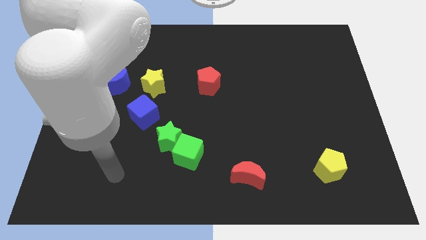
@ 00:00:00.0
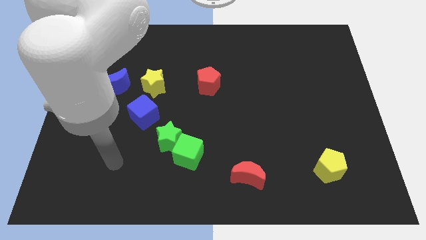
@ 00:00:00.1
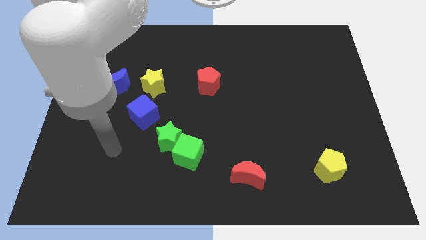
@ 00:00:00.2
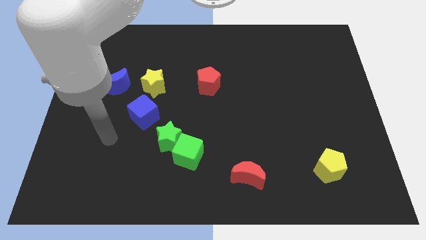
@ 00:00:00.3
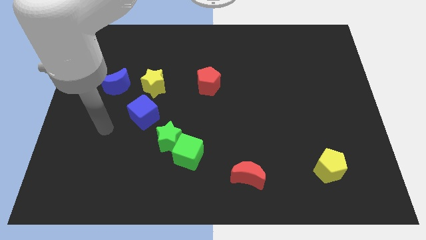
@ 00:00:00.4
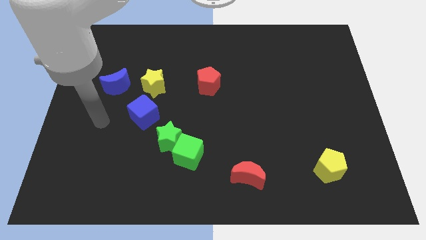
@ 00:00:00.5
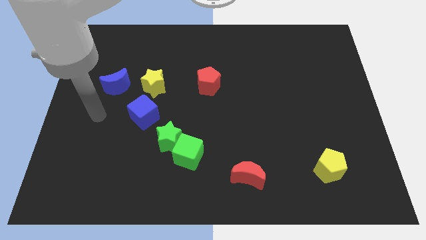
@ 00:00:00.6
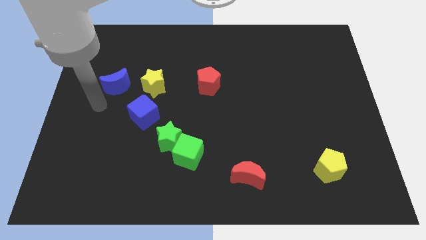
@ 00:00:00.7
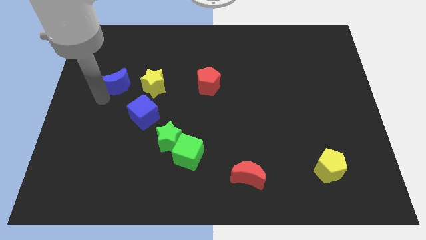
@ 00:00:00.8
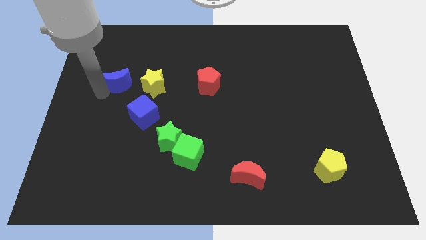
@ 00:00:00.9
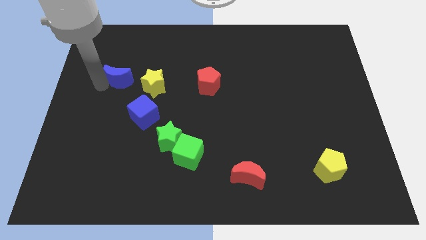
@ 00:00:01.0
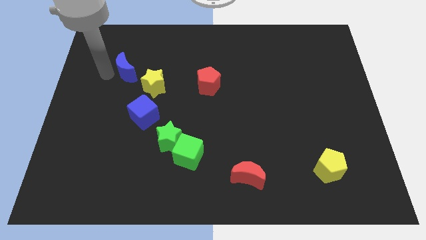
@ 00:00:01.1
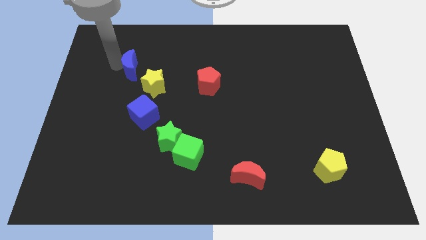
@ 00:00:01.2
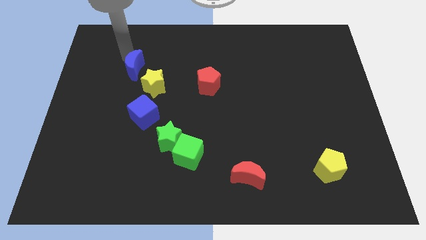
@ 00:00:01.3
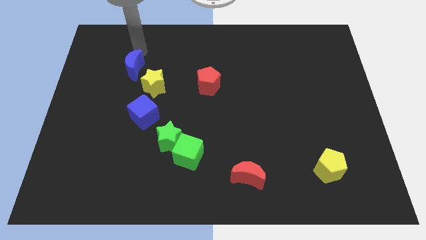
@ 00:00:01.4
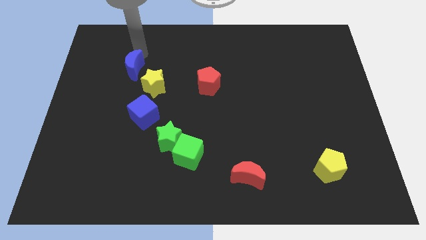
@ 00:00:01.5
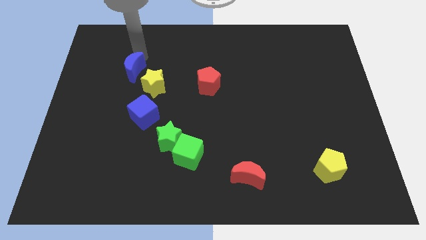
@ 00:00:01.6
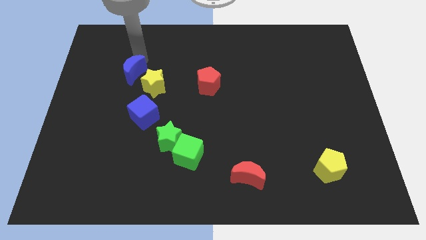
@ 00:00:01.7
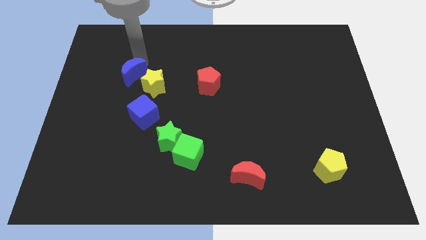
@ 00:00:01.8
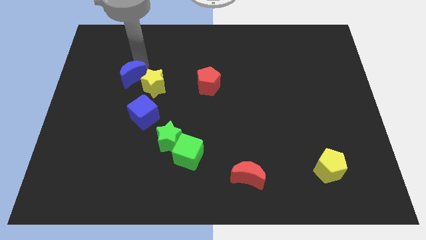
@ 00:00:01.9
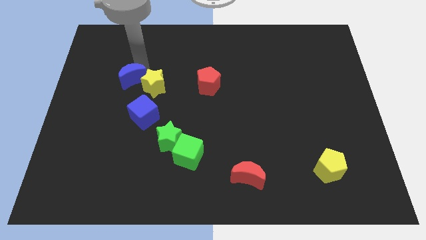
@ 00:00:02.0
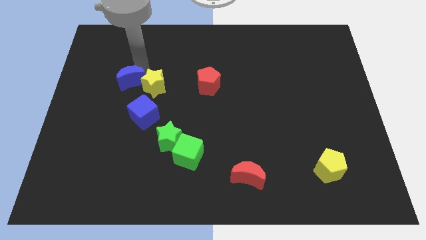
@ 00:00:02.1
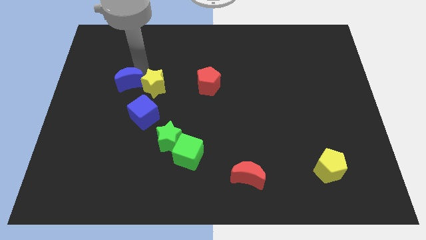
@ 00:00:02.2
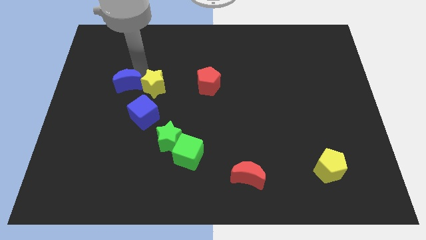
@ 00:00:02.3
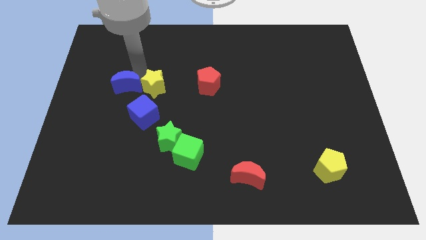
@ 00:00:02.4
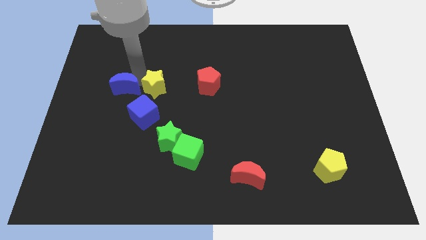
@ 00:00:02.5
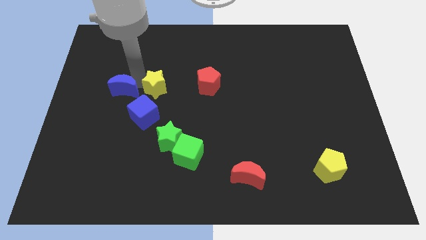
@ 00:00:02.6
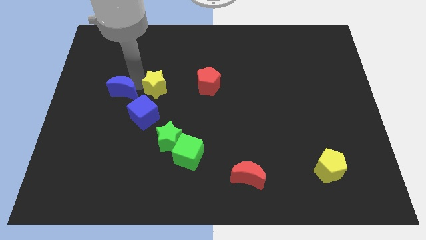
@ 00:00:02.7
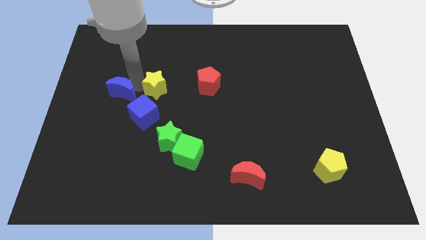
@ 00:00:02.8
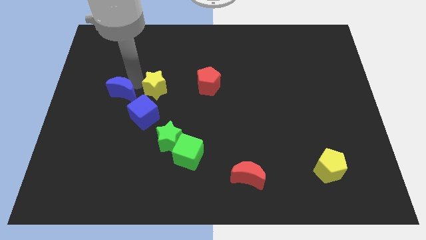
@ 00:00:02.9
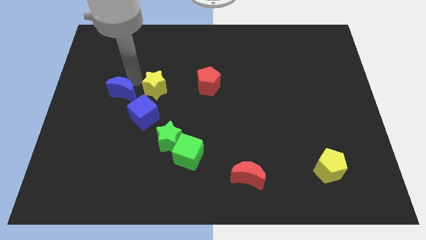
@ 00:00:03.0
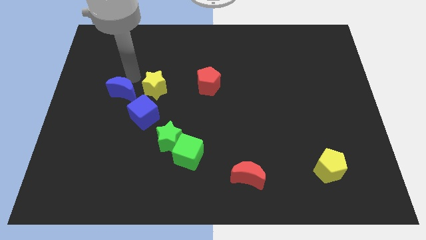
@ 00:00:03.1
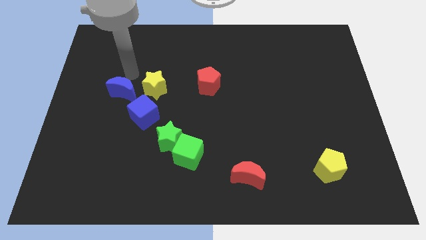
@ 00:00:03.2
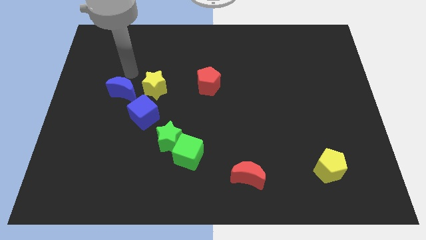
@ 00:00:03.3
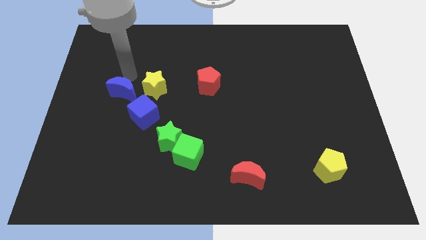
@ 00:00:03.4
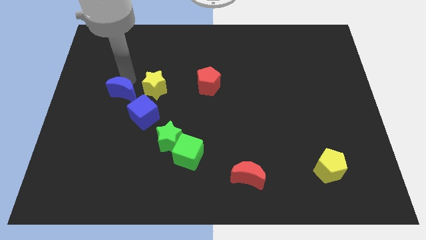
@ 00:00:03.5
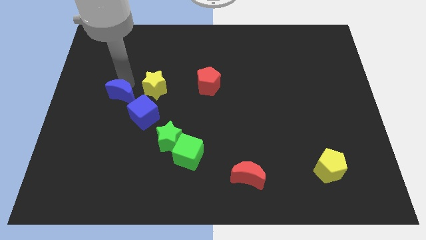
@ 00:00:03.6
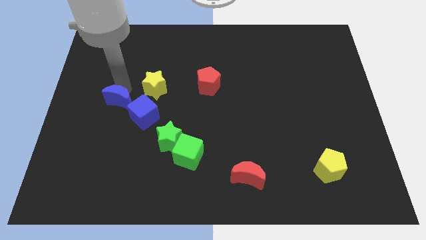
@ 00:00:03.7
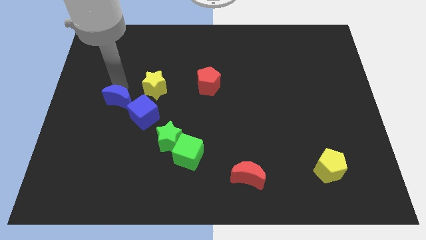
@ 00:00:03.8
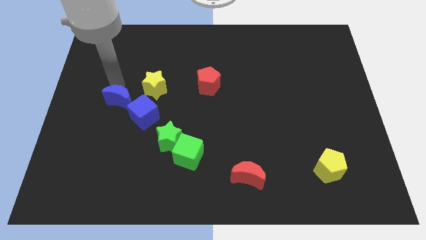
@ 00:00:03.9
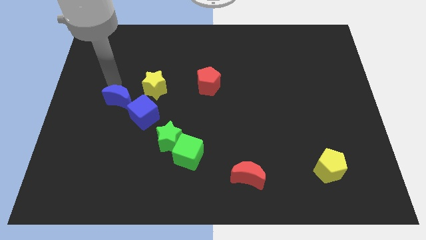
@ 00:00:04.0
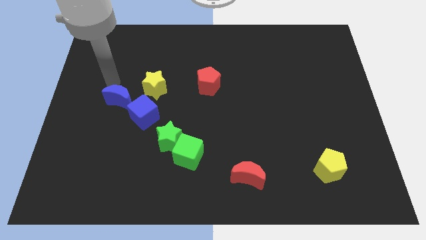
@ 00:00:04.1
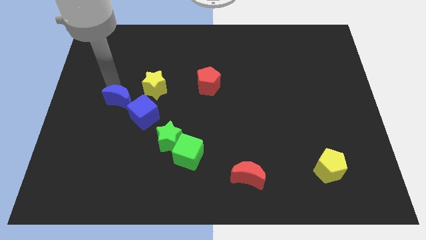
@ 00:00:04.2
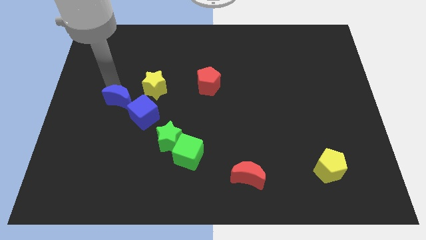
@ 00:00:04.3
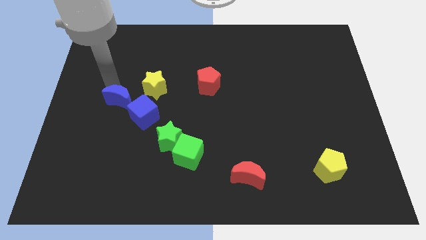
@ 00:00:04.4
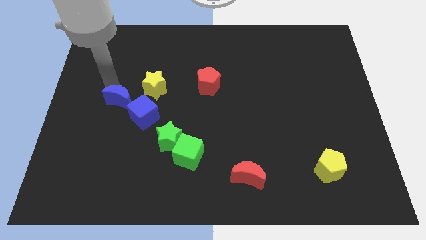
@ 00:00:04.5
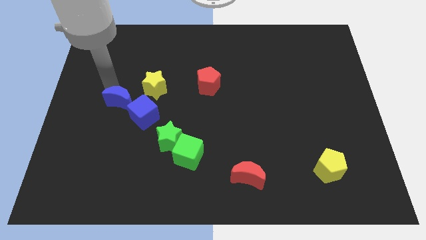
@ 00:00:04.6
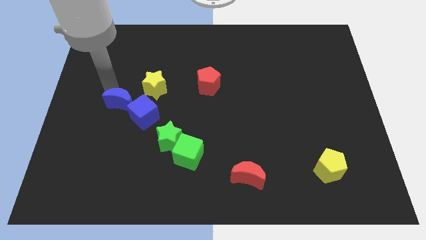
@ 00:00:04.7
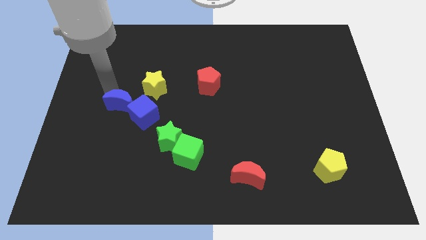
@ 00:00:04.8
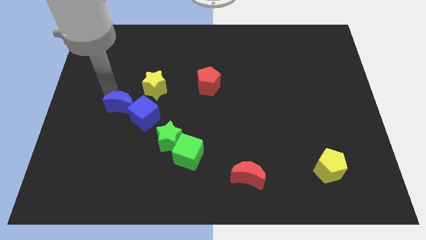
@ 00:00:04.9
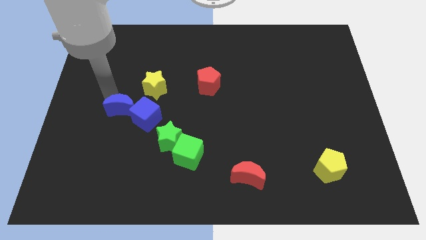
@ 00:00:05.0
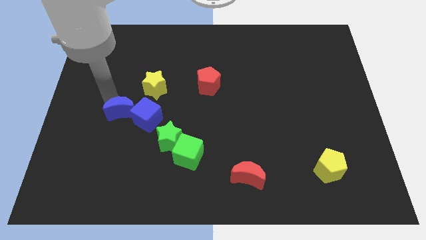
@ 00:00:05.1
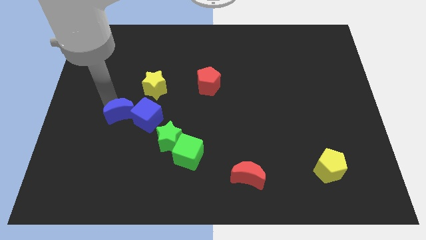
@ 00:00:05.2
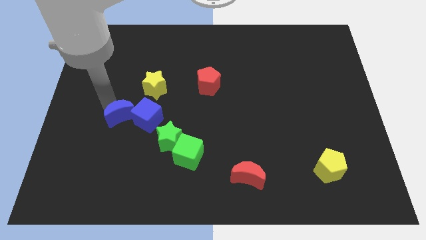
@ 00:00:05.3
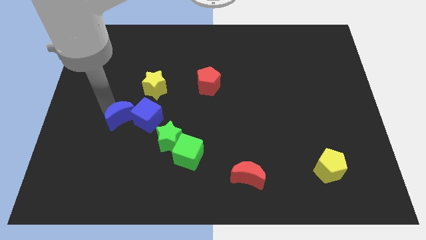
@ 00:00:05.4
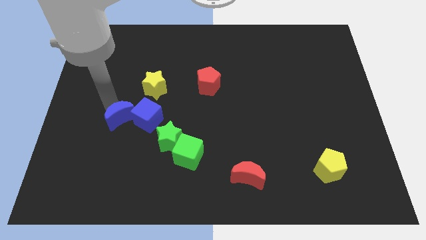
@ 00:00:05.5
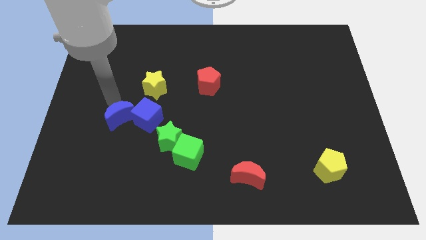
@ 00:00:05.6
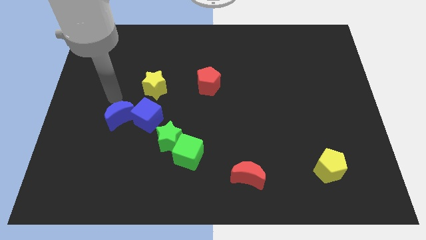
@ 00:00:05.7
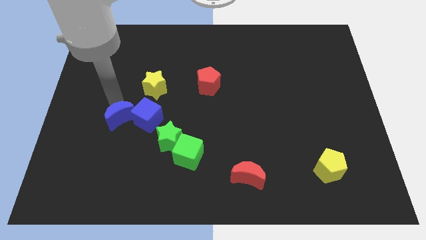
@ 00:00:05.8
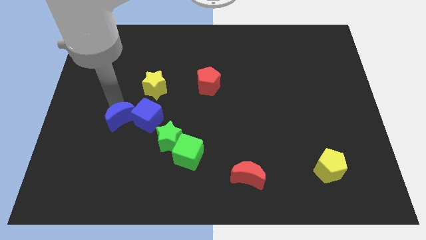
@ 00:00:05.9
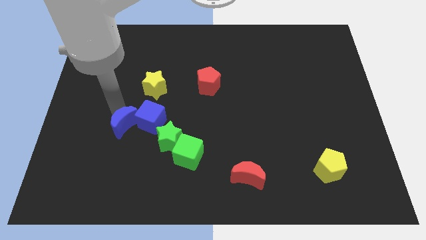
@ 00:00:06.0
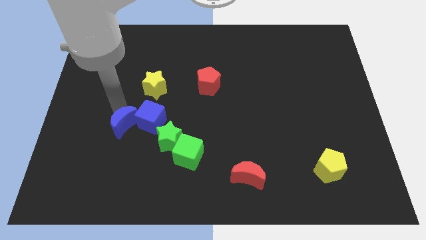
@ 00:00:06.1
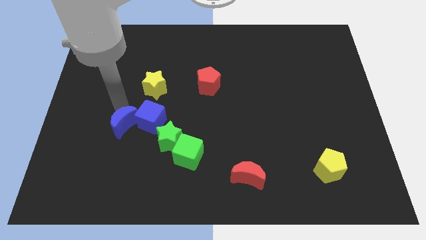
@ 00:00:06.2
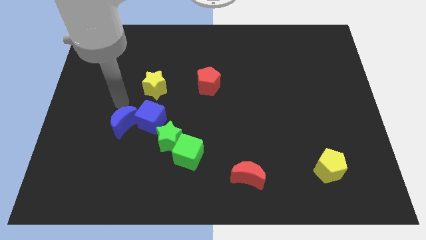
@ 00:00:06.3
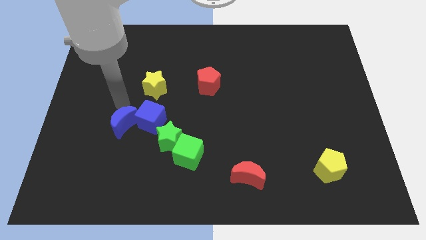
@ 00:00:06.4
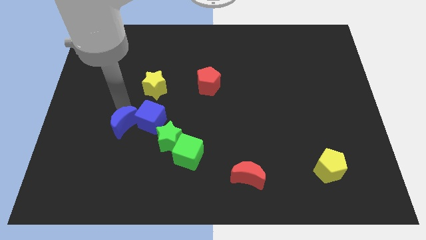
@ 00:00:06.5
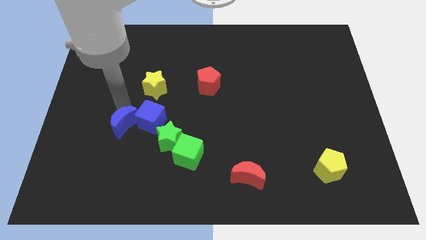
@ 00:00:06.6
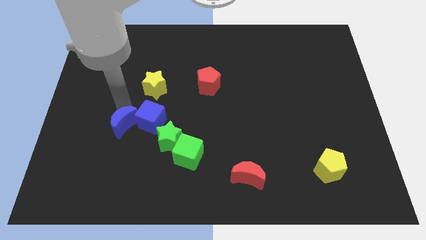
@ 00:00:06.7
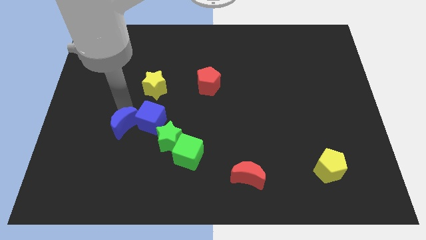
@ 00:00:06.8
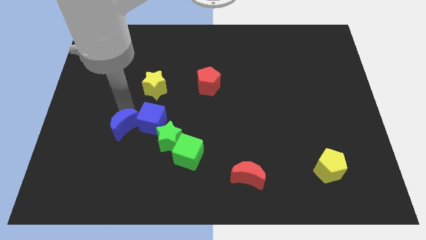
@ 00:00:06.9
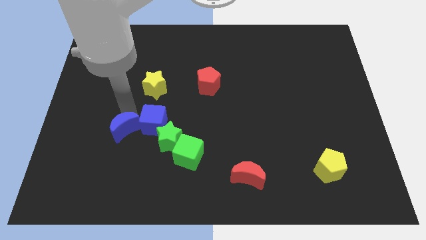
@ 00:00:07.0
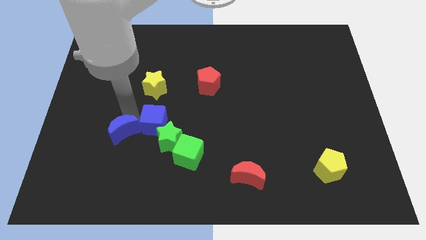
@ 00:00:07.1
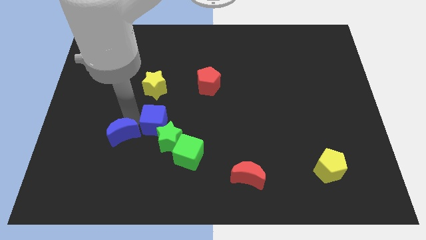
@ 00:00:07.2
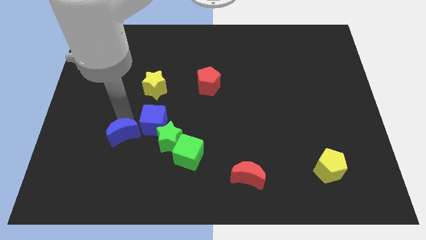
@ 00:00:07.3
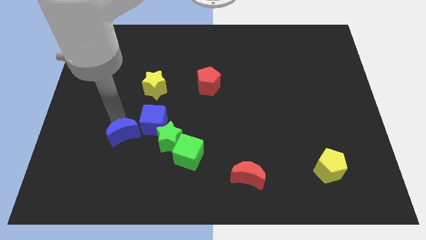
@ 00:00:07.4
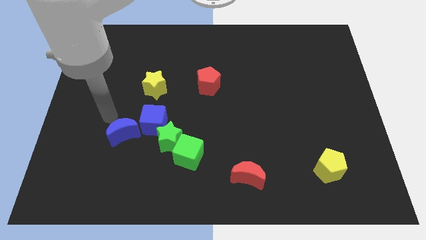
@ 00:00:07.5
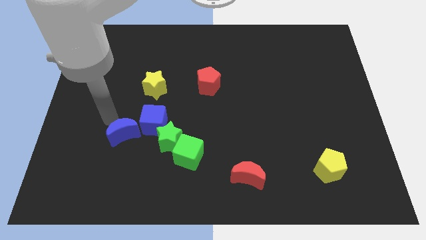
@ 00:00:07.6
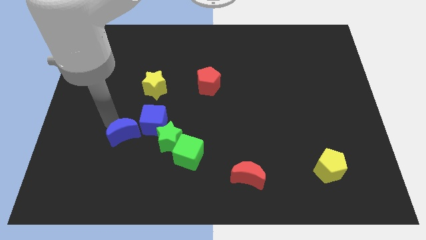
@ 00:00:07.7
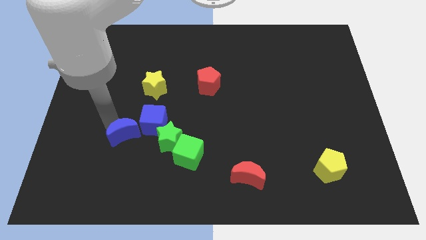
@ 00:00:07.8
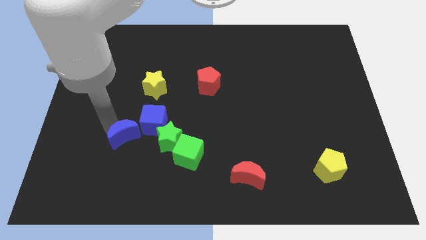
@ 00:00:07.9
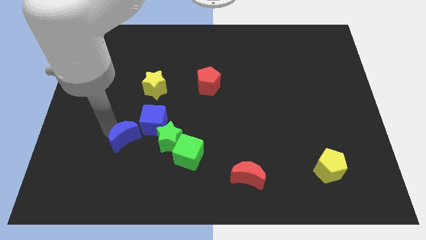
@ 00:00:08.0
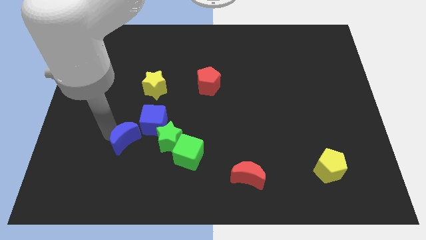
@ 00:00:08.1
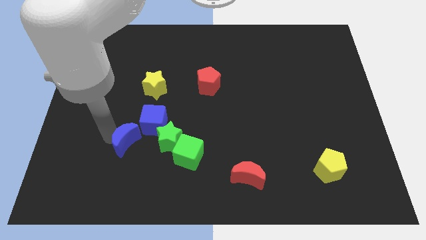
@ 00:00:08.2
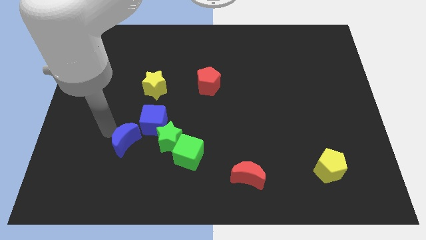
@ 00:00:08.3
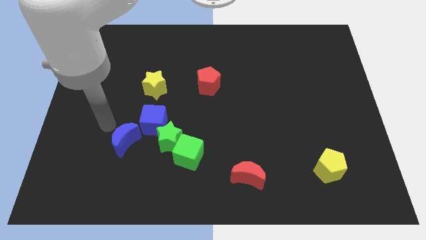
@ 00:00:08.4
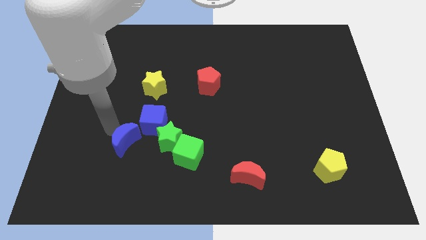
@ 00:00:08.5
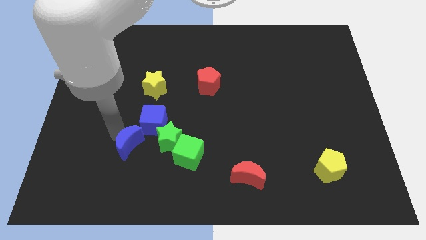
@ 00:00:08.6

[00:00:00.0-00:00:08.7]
move the blue moon to the bottom side of the blue cube
